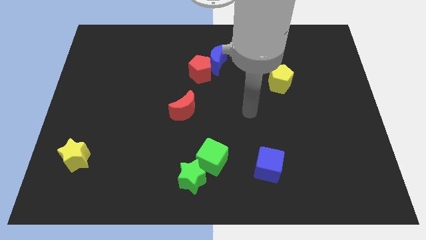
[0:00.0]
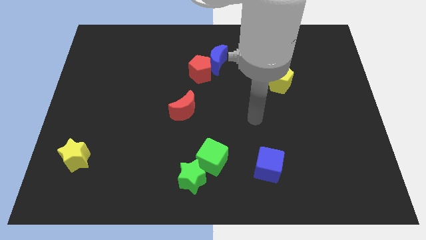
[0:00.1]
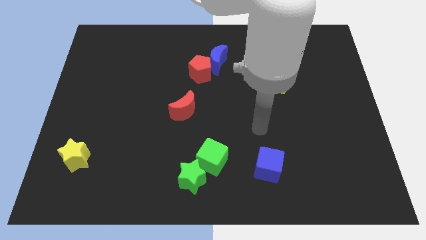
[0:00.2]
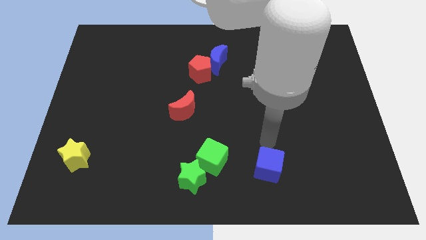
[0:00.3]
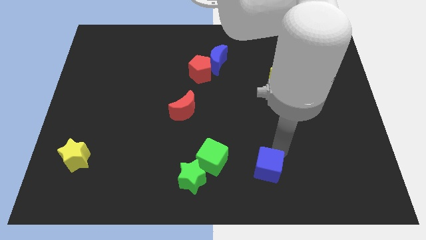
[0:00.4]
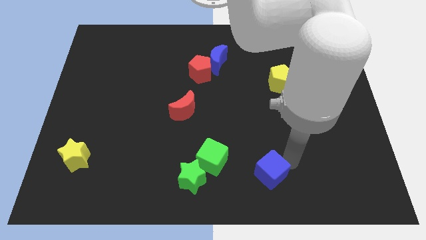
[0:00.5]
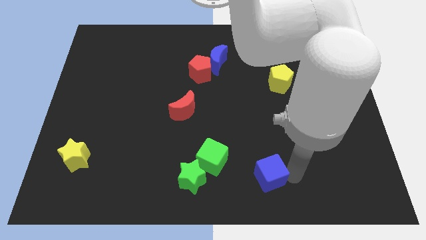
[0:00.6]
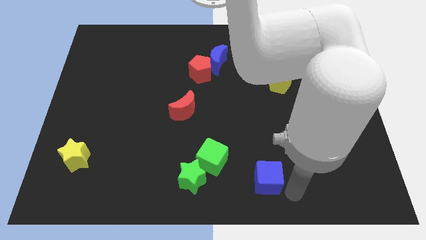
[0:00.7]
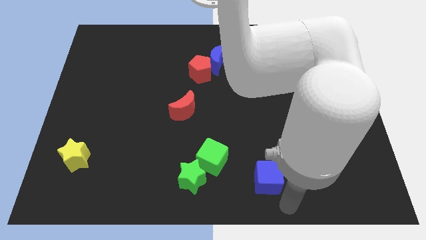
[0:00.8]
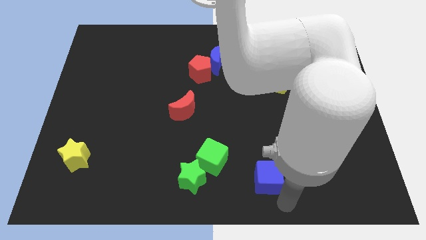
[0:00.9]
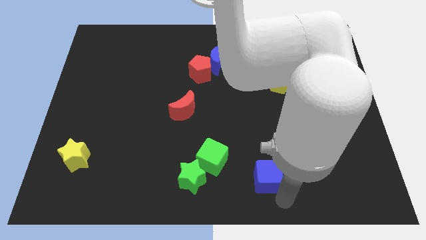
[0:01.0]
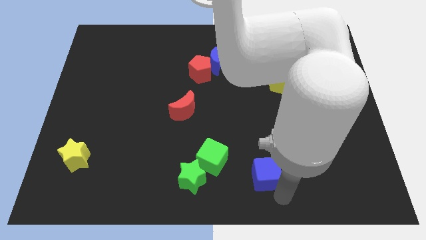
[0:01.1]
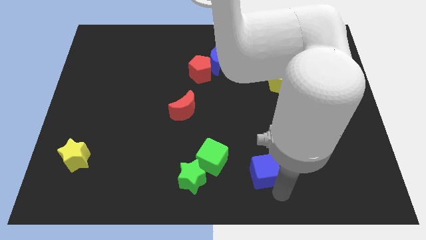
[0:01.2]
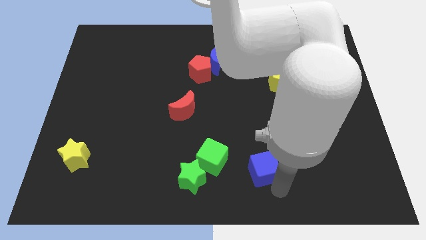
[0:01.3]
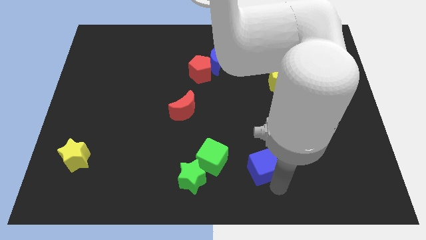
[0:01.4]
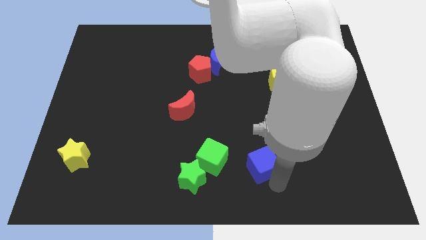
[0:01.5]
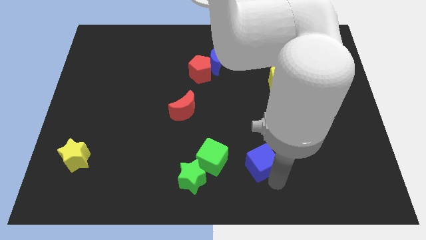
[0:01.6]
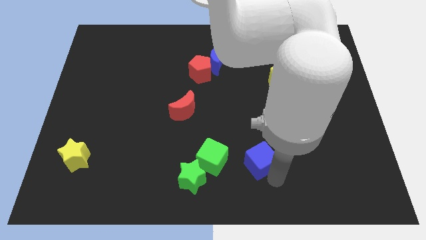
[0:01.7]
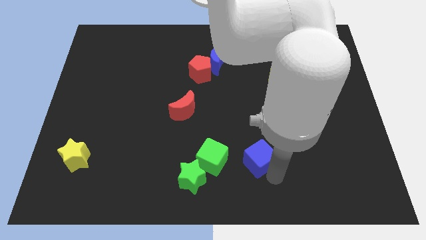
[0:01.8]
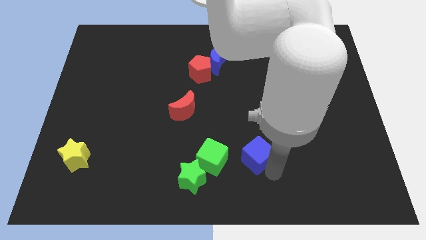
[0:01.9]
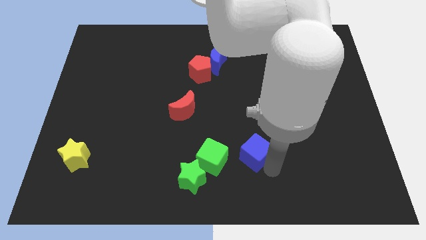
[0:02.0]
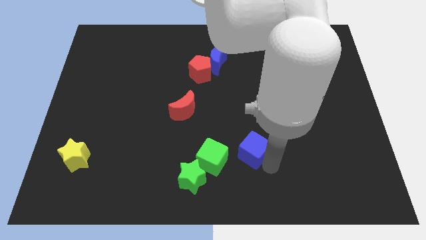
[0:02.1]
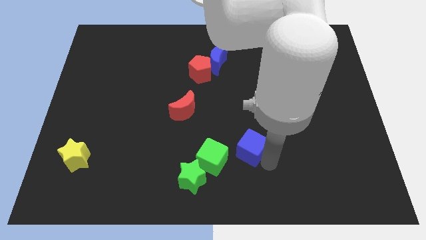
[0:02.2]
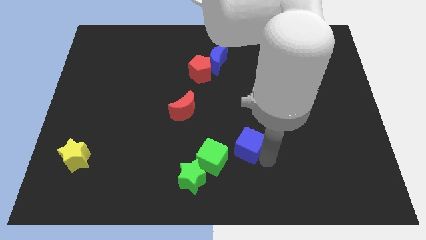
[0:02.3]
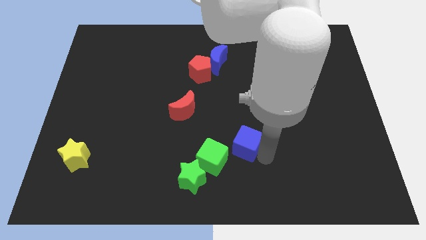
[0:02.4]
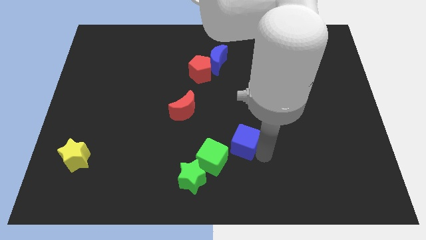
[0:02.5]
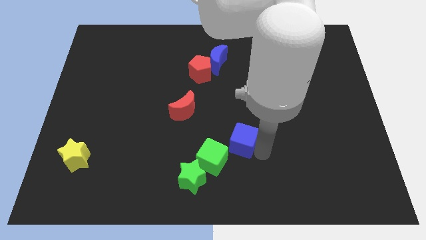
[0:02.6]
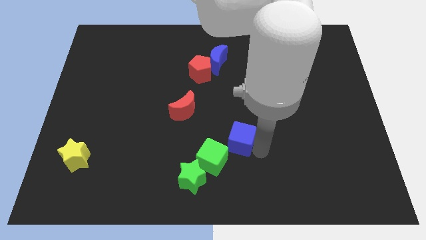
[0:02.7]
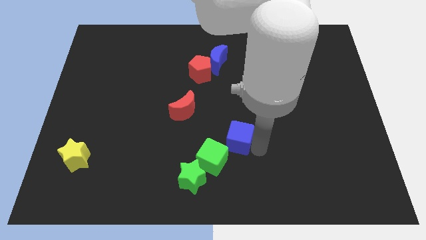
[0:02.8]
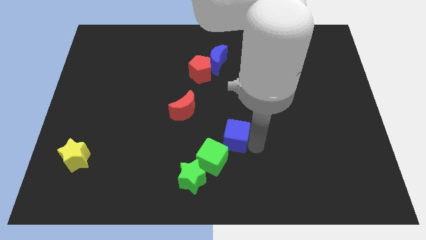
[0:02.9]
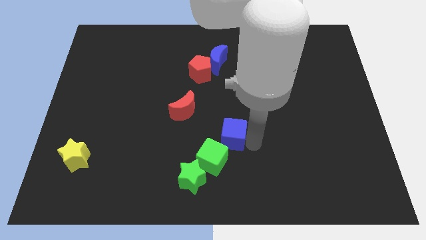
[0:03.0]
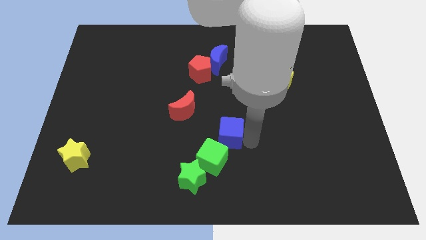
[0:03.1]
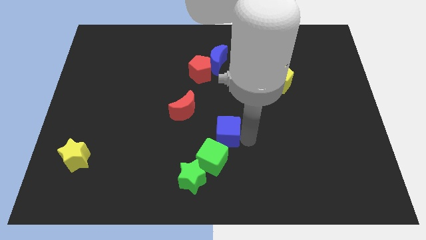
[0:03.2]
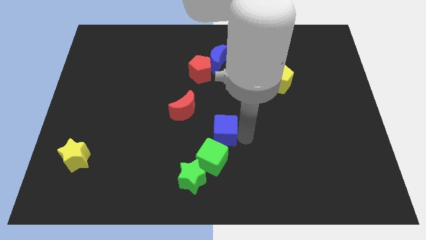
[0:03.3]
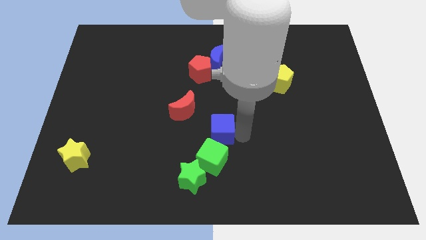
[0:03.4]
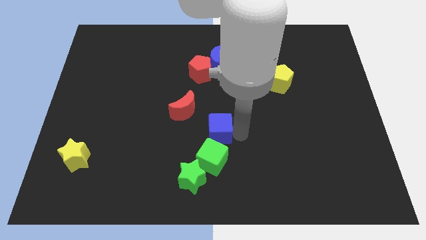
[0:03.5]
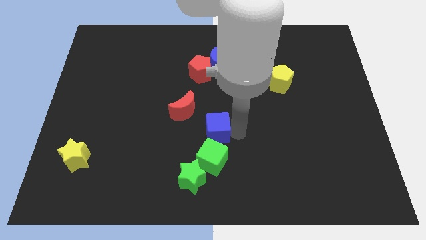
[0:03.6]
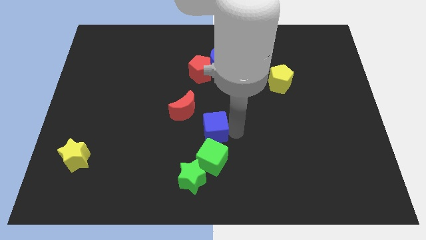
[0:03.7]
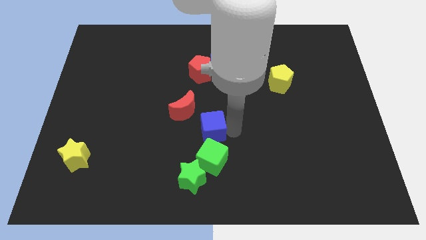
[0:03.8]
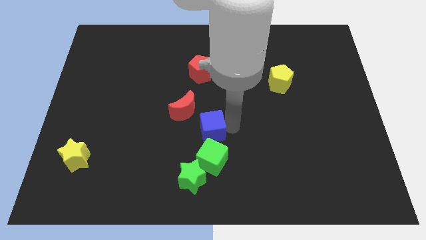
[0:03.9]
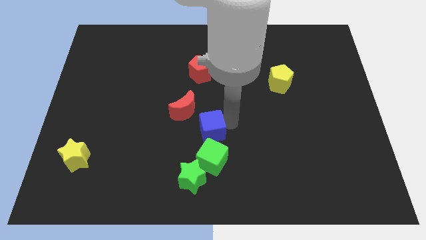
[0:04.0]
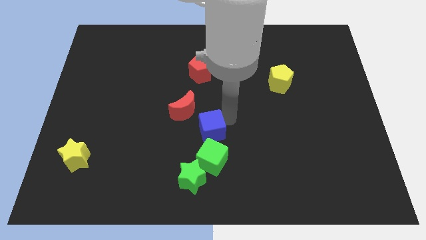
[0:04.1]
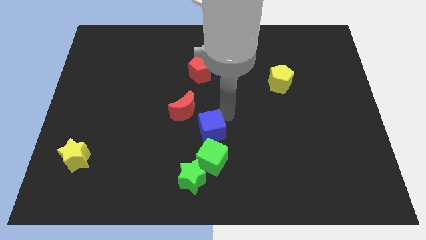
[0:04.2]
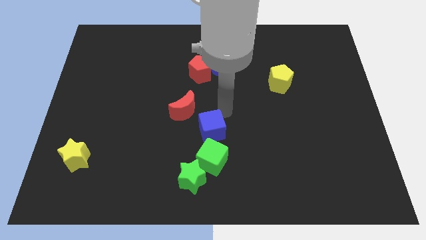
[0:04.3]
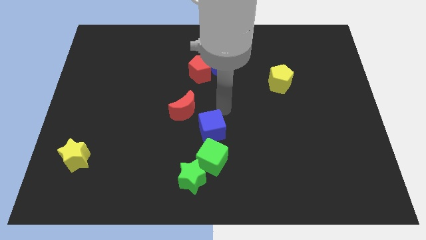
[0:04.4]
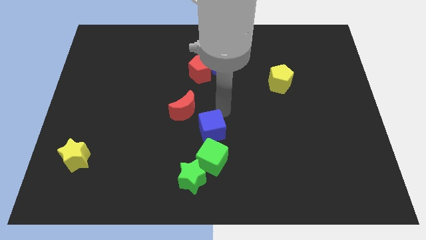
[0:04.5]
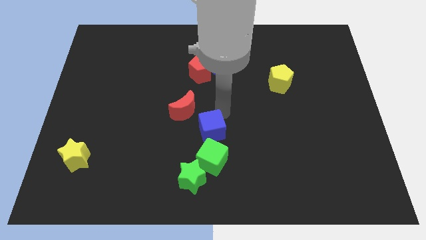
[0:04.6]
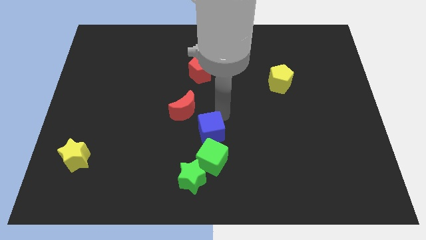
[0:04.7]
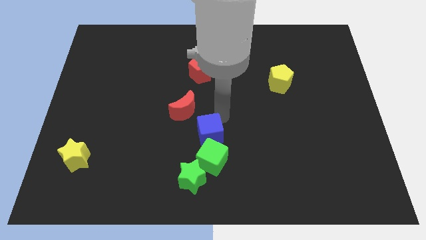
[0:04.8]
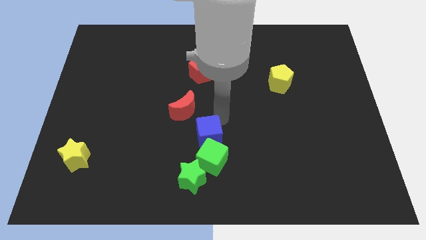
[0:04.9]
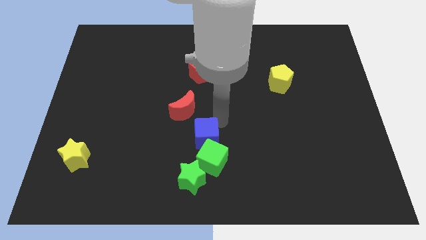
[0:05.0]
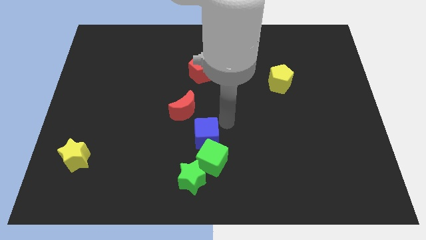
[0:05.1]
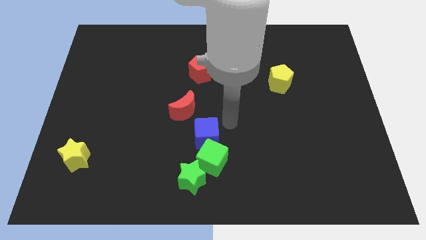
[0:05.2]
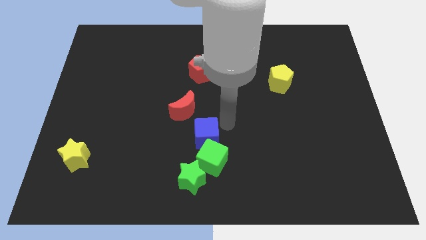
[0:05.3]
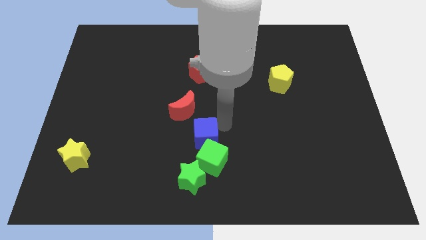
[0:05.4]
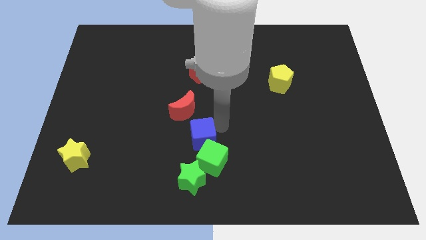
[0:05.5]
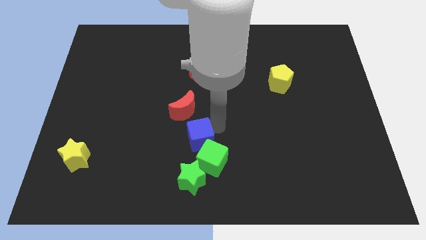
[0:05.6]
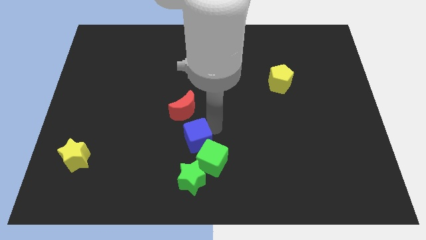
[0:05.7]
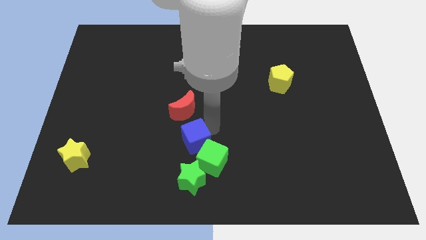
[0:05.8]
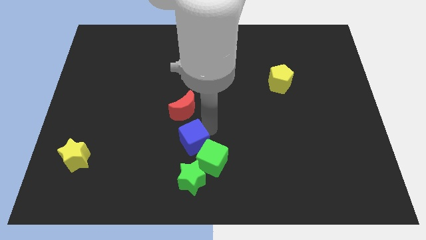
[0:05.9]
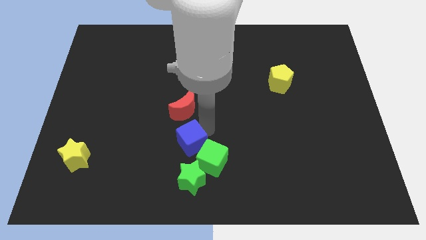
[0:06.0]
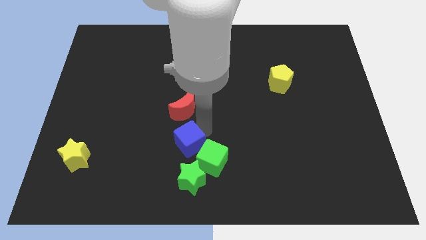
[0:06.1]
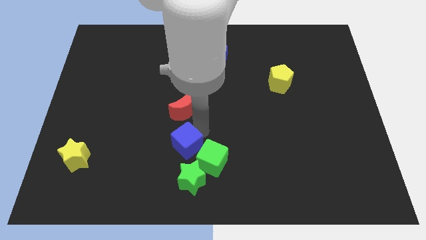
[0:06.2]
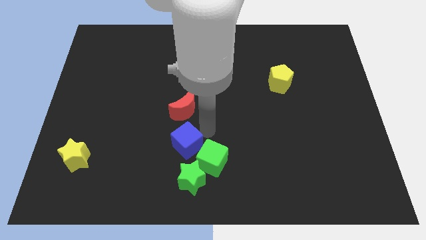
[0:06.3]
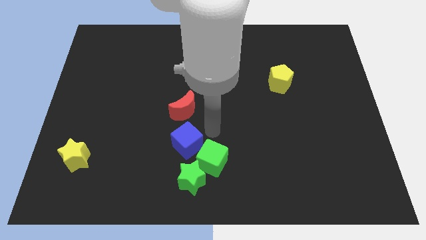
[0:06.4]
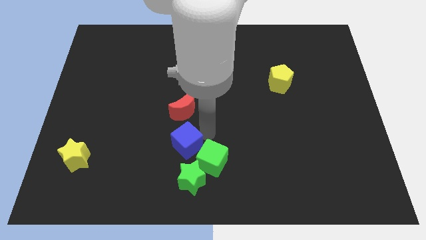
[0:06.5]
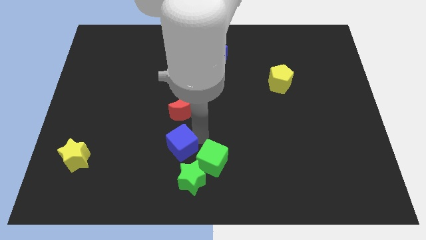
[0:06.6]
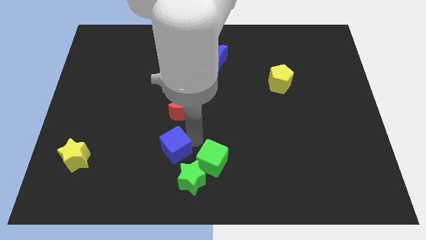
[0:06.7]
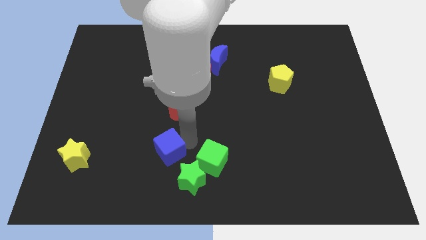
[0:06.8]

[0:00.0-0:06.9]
slide the blue cube left

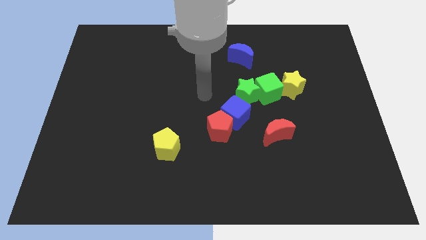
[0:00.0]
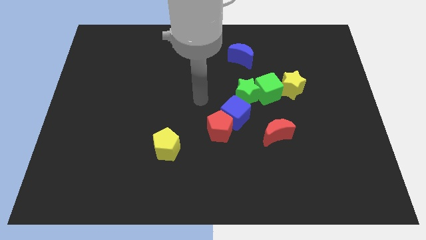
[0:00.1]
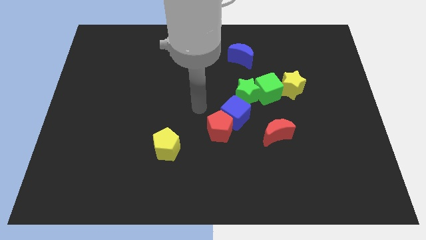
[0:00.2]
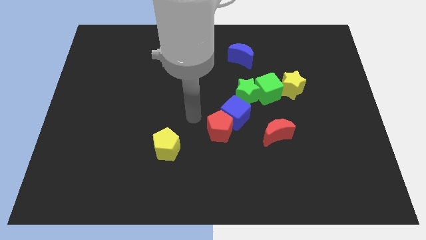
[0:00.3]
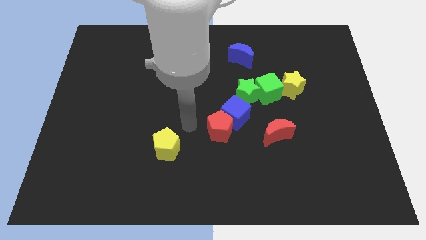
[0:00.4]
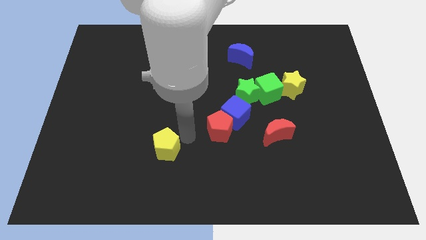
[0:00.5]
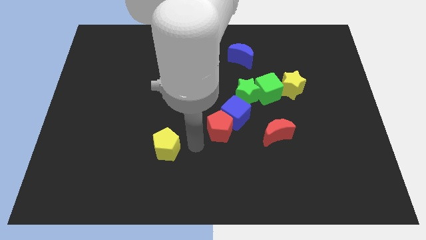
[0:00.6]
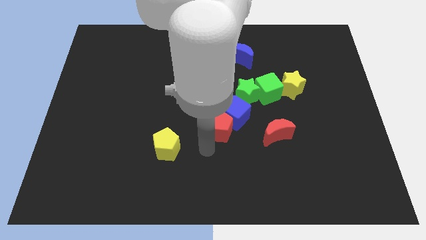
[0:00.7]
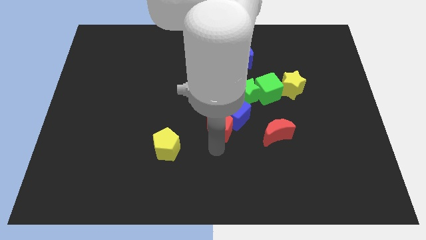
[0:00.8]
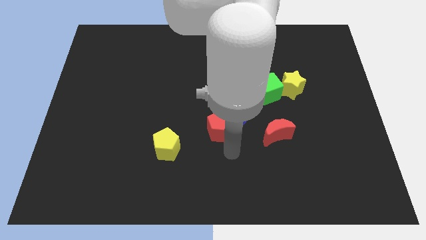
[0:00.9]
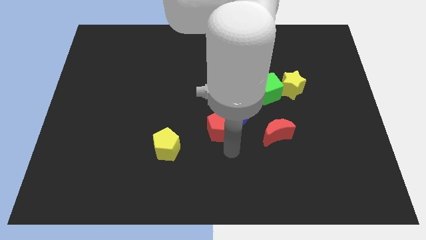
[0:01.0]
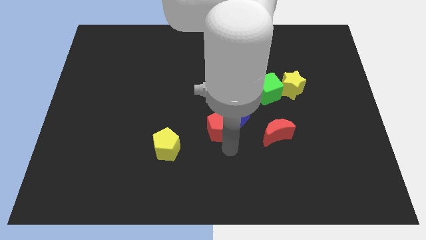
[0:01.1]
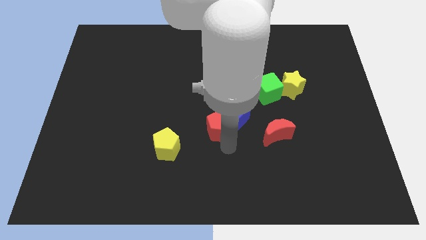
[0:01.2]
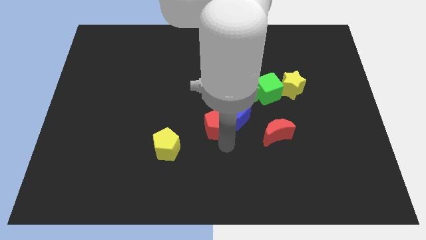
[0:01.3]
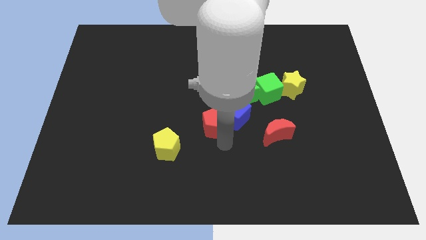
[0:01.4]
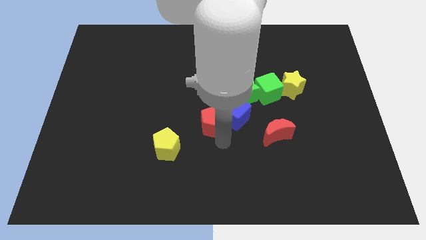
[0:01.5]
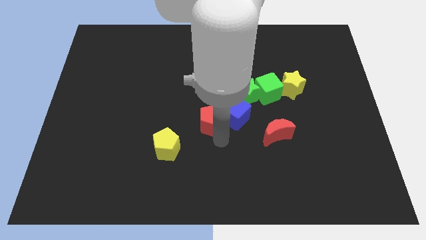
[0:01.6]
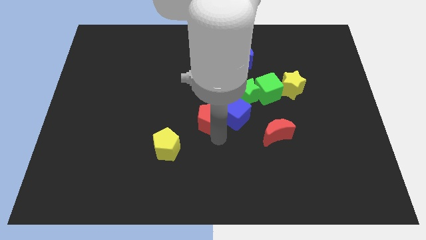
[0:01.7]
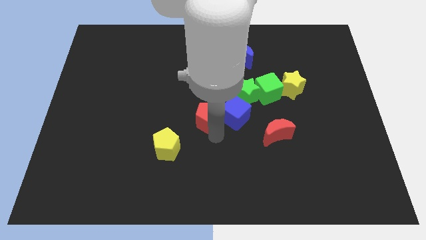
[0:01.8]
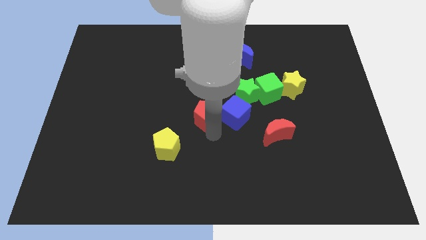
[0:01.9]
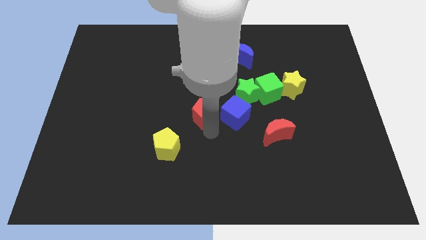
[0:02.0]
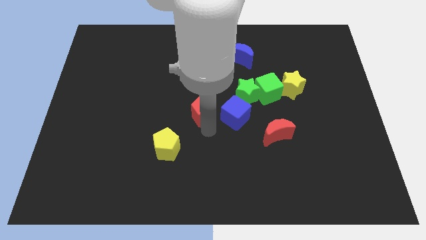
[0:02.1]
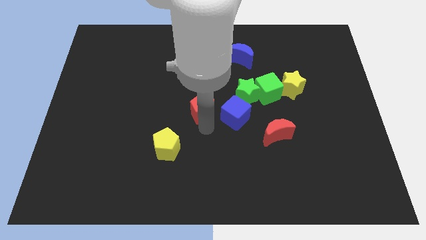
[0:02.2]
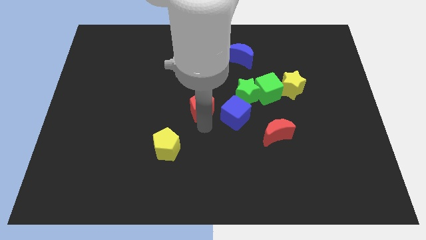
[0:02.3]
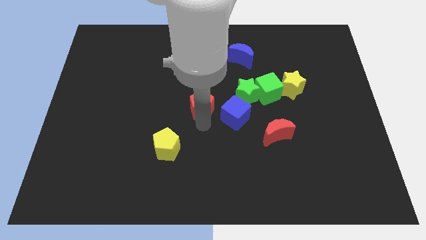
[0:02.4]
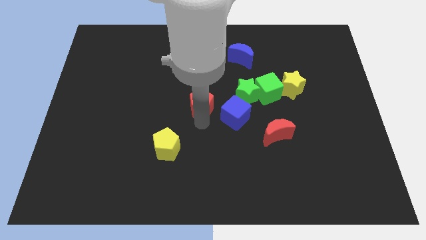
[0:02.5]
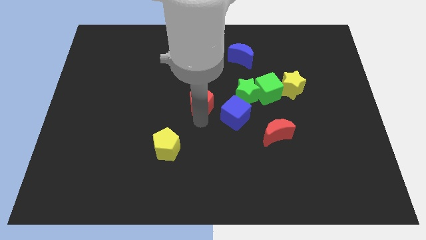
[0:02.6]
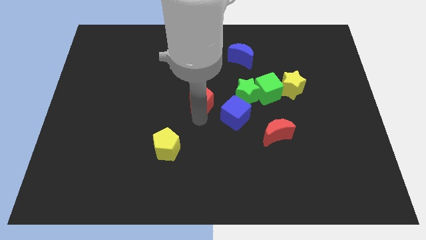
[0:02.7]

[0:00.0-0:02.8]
slide the red pentagon a little bit up
